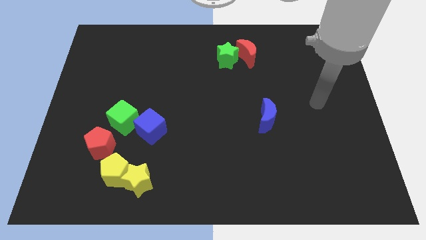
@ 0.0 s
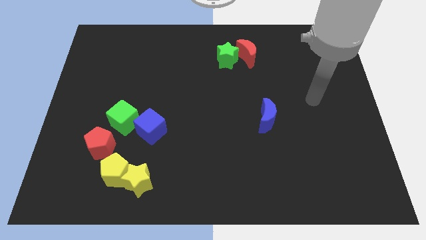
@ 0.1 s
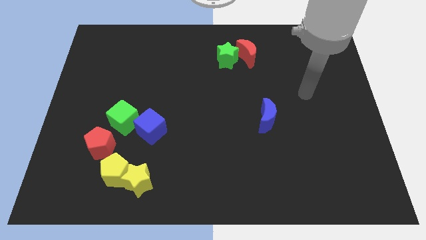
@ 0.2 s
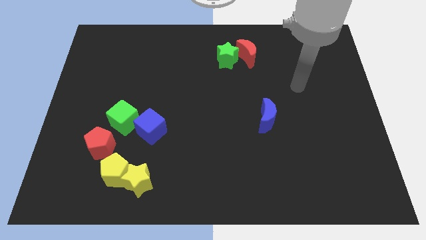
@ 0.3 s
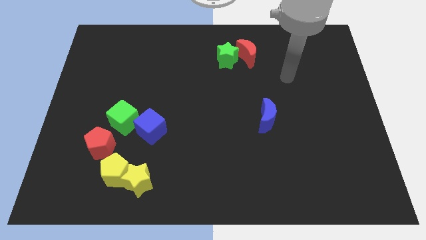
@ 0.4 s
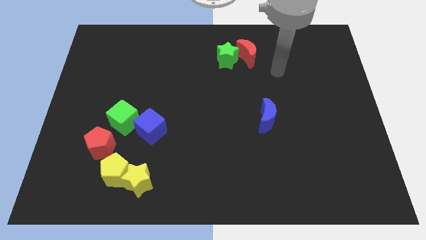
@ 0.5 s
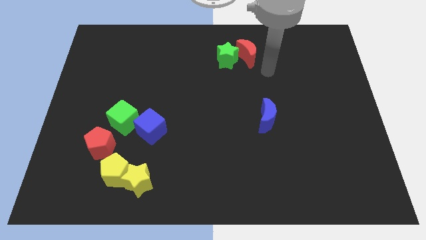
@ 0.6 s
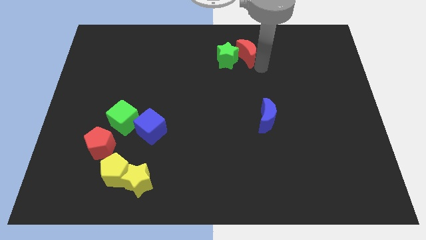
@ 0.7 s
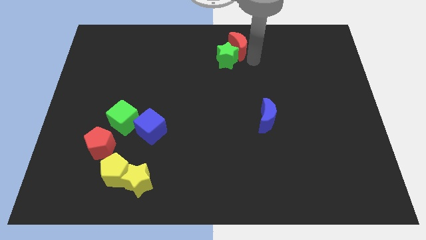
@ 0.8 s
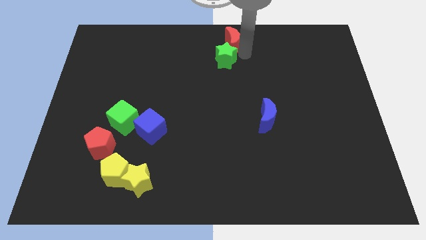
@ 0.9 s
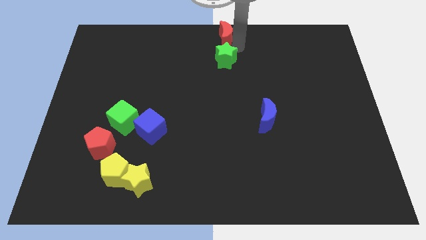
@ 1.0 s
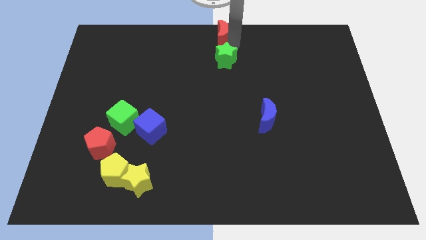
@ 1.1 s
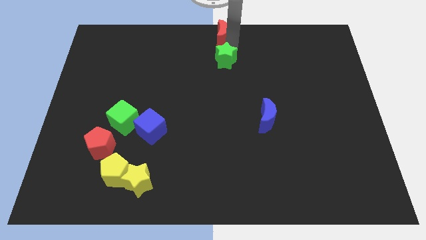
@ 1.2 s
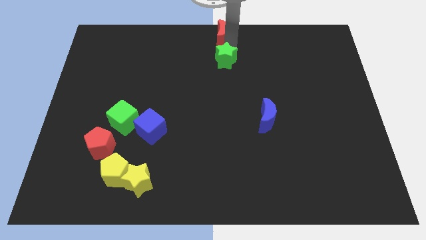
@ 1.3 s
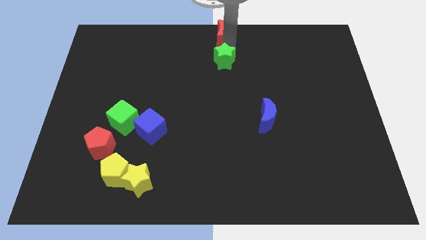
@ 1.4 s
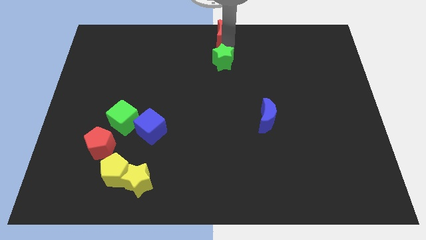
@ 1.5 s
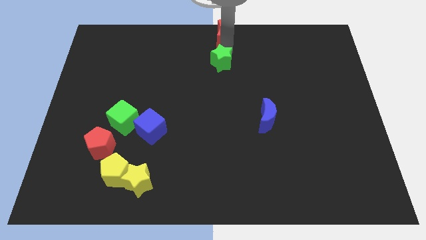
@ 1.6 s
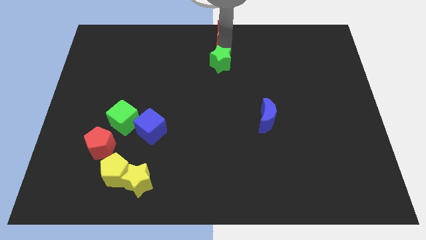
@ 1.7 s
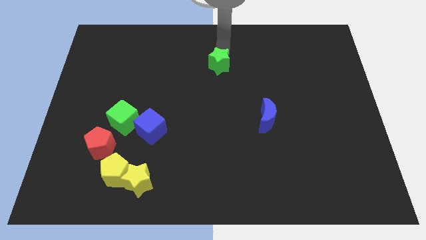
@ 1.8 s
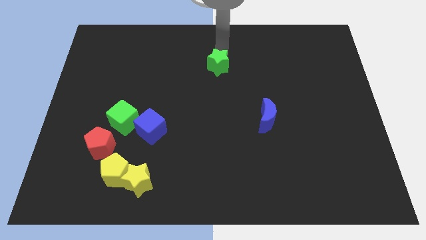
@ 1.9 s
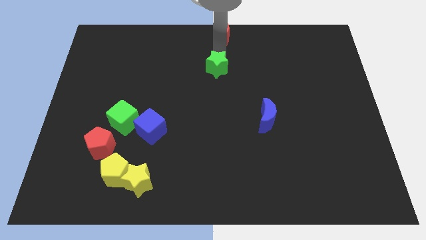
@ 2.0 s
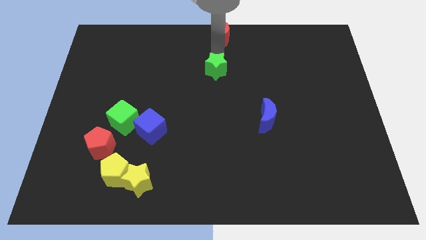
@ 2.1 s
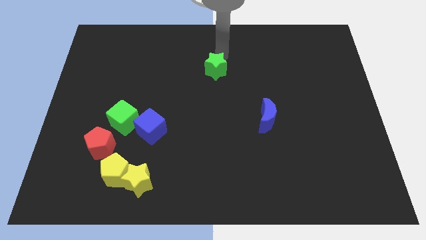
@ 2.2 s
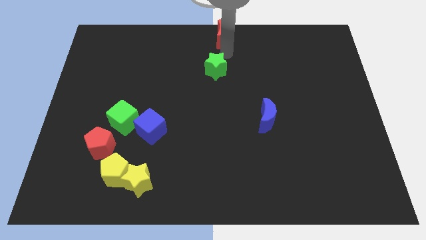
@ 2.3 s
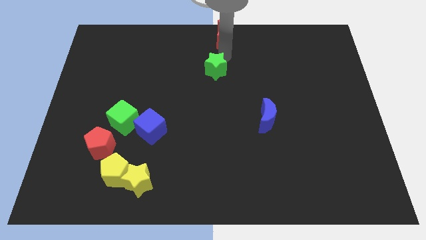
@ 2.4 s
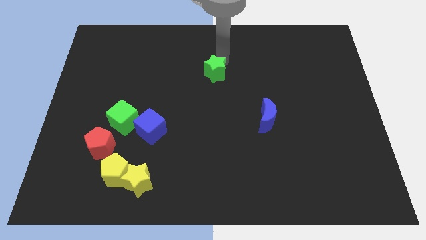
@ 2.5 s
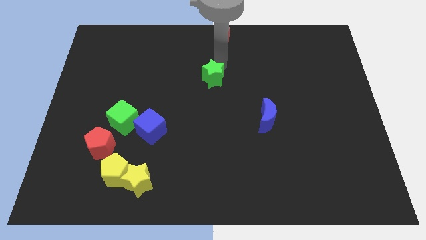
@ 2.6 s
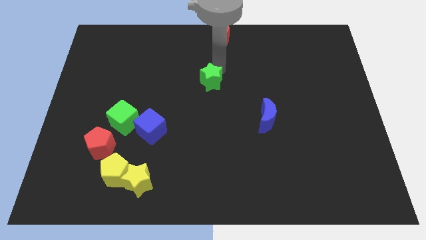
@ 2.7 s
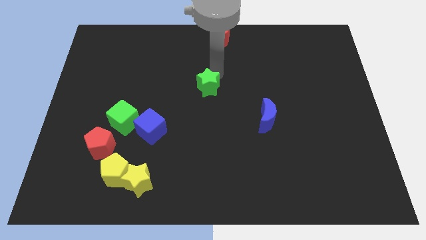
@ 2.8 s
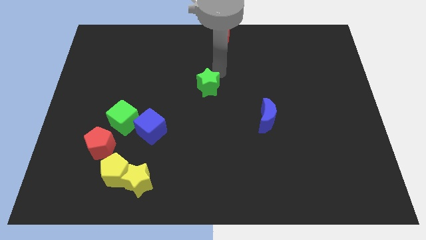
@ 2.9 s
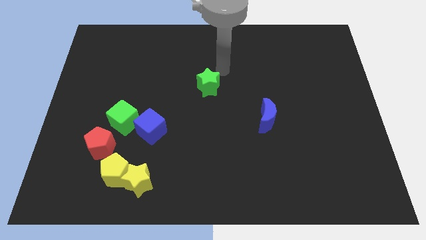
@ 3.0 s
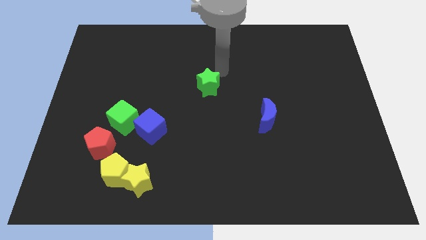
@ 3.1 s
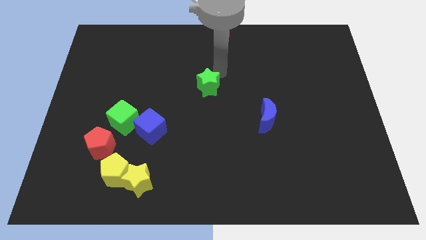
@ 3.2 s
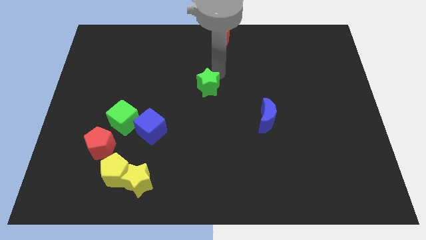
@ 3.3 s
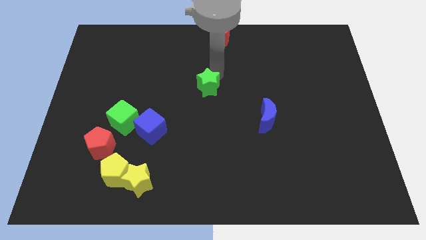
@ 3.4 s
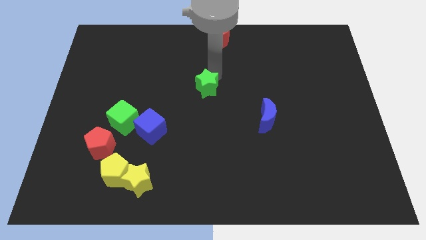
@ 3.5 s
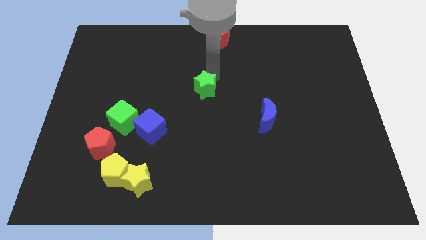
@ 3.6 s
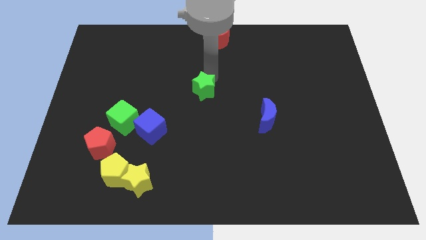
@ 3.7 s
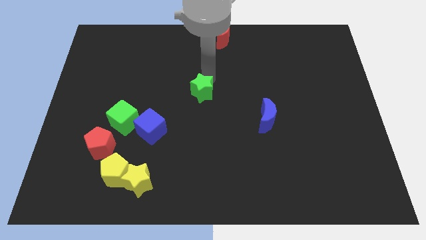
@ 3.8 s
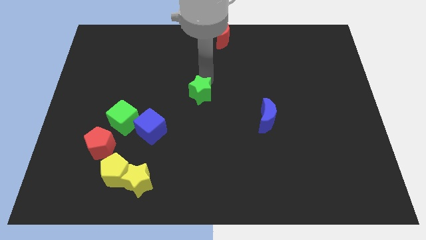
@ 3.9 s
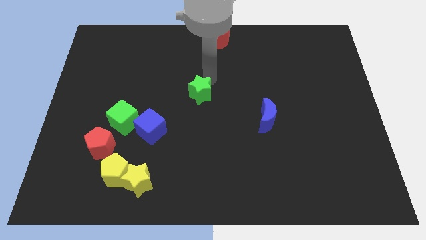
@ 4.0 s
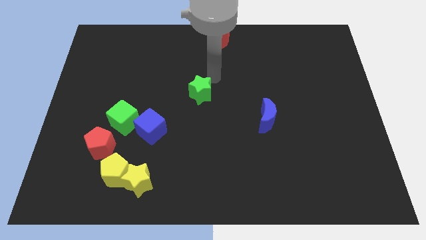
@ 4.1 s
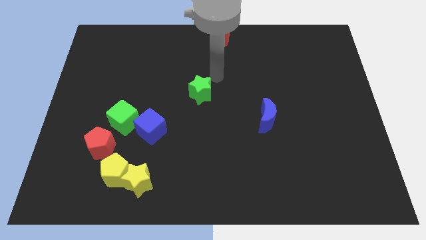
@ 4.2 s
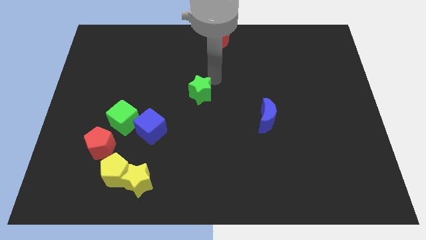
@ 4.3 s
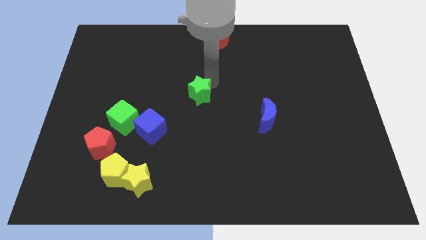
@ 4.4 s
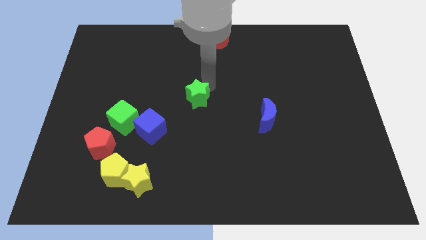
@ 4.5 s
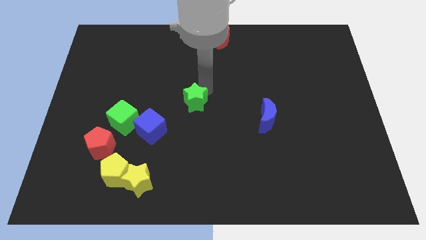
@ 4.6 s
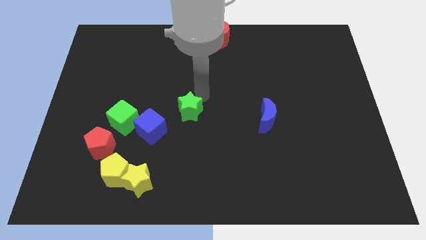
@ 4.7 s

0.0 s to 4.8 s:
move the green star to the right of the green cube

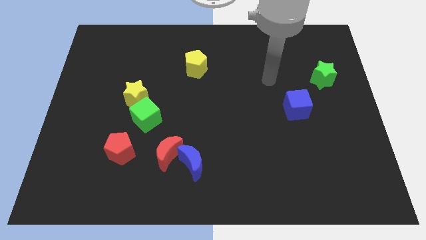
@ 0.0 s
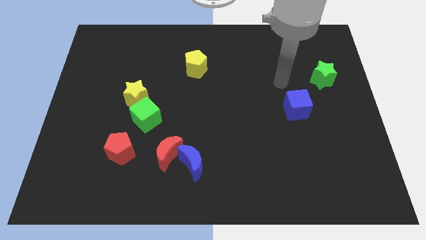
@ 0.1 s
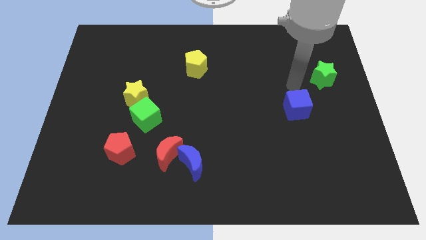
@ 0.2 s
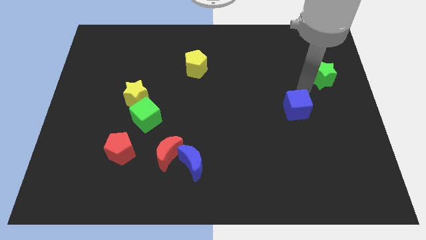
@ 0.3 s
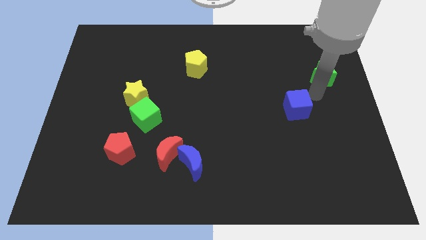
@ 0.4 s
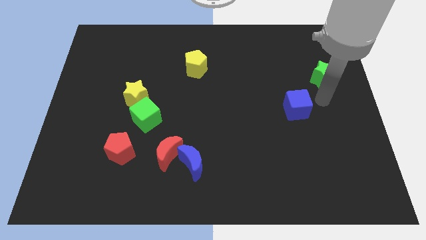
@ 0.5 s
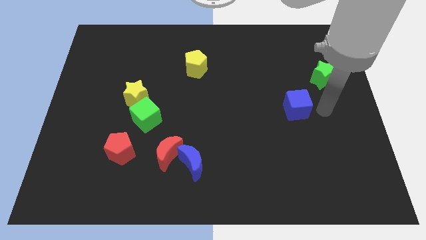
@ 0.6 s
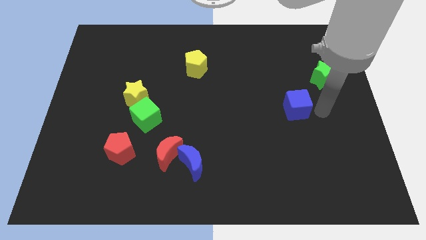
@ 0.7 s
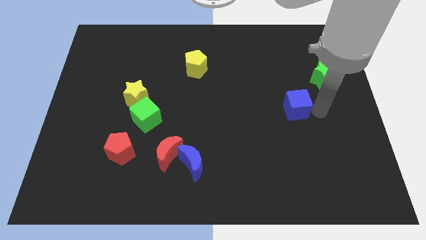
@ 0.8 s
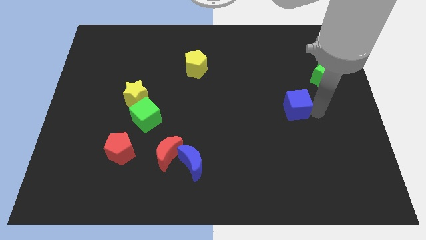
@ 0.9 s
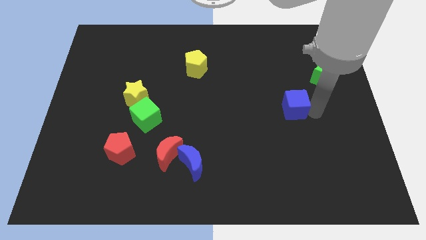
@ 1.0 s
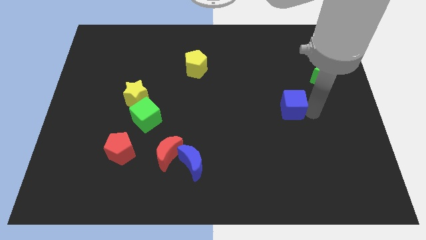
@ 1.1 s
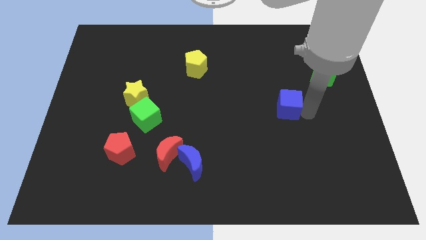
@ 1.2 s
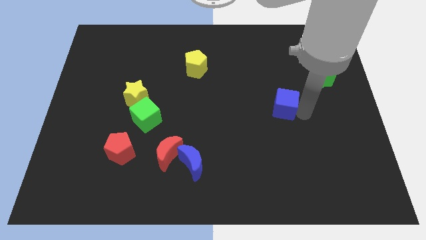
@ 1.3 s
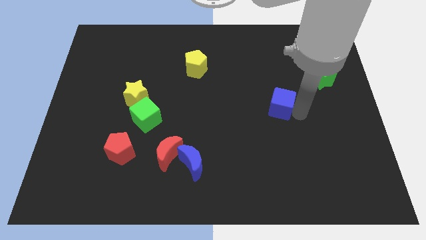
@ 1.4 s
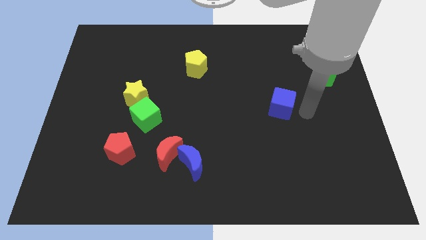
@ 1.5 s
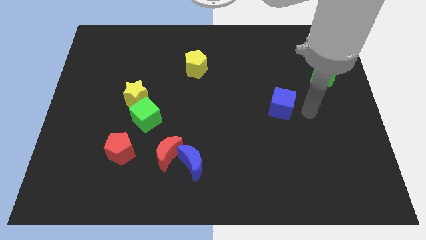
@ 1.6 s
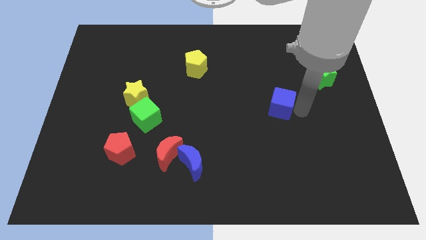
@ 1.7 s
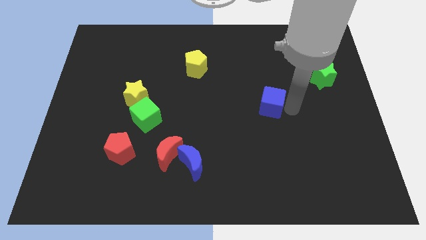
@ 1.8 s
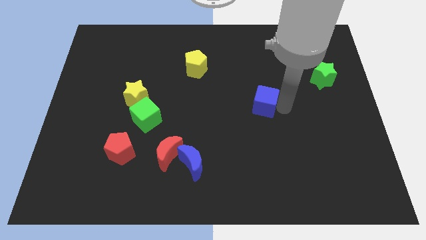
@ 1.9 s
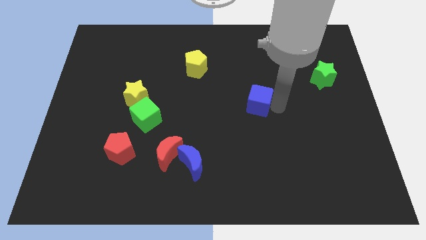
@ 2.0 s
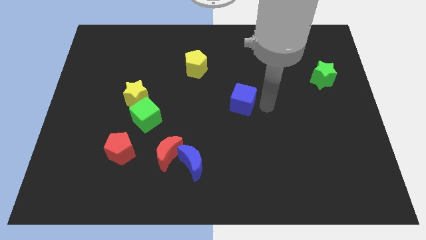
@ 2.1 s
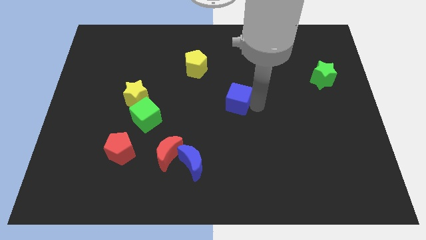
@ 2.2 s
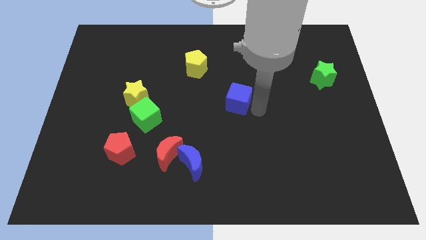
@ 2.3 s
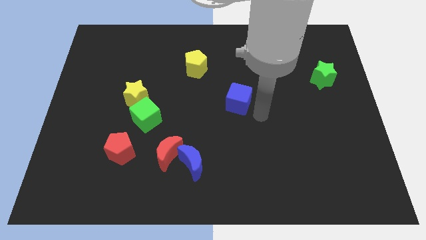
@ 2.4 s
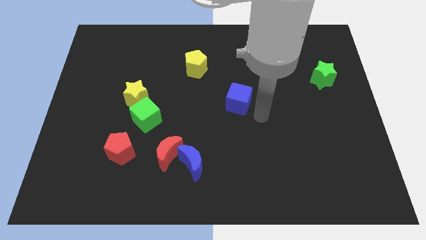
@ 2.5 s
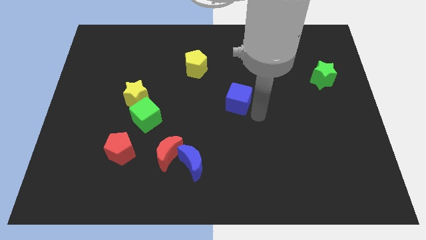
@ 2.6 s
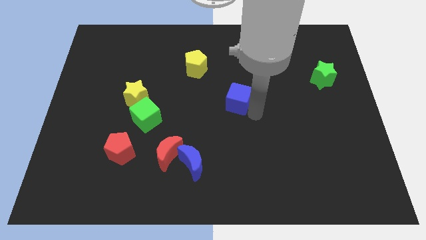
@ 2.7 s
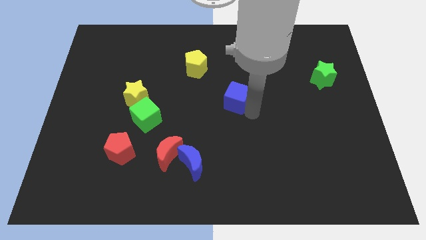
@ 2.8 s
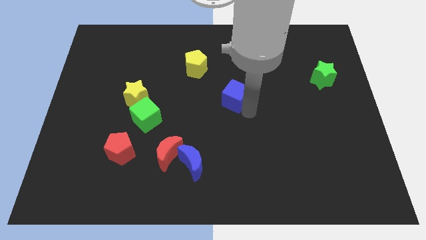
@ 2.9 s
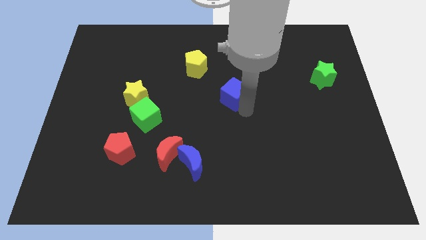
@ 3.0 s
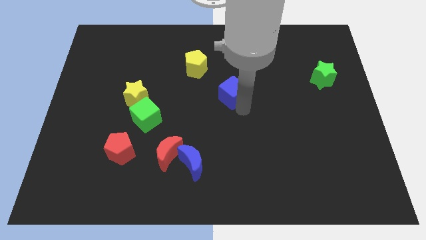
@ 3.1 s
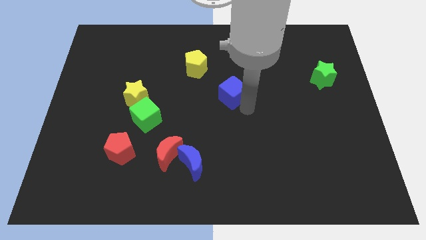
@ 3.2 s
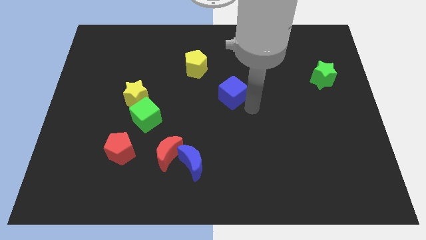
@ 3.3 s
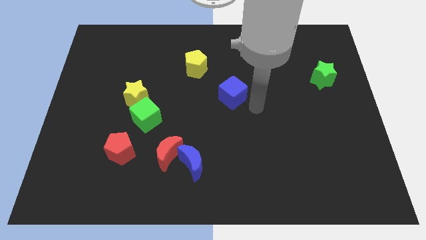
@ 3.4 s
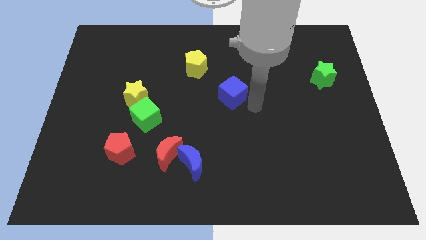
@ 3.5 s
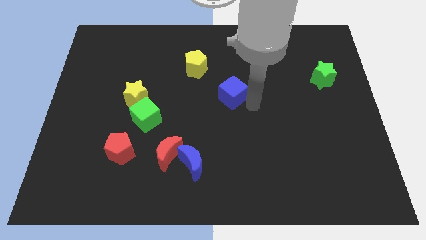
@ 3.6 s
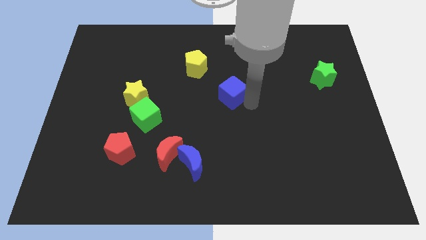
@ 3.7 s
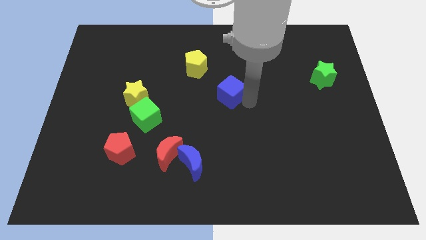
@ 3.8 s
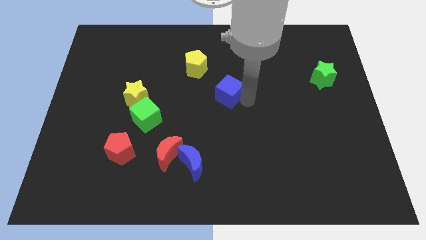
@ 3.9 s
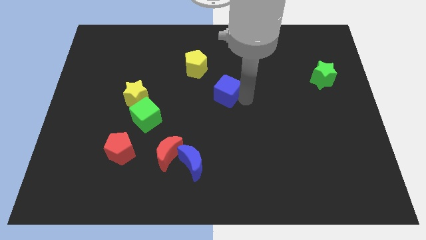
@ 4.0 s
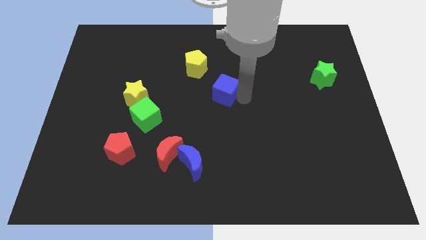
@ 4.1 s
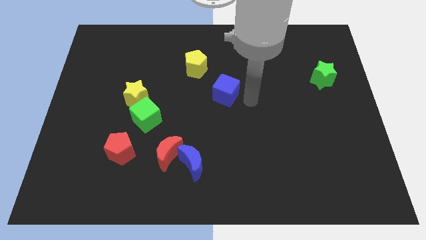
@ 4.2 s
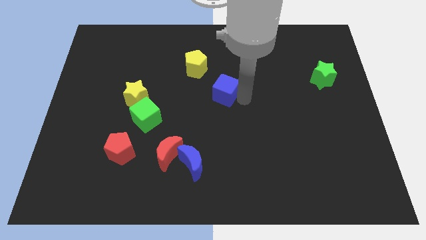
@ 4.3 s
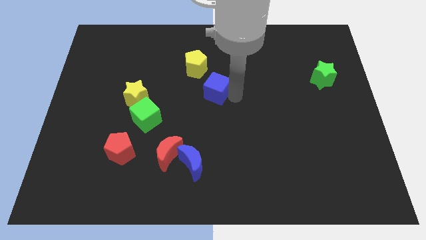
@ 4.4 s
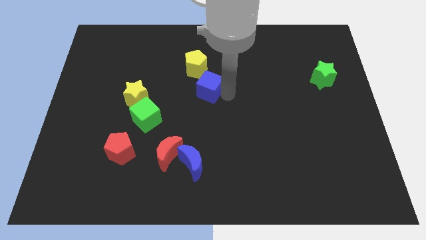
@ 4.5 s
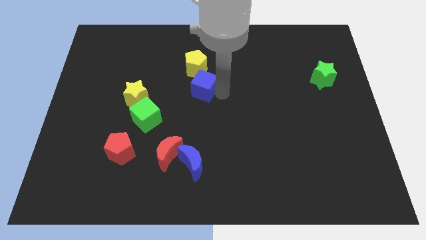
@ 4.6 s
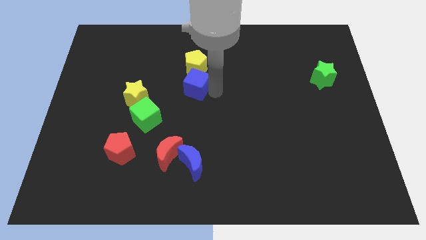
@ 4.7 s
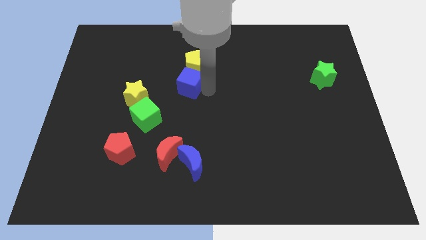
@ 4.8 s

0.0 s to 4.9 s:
slide the blue cube to the bottom left of the yellow pentagon
